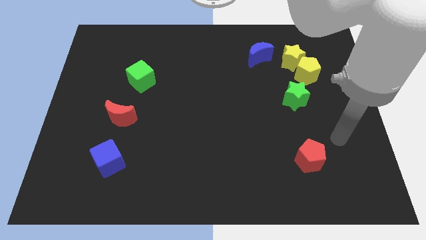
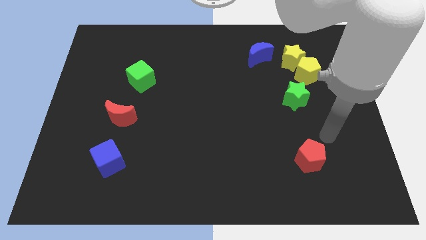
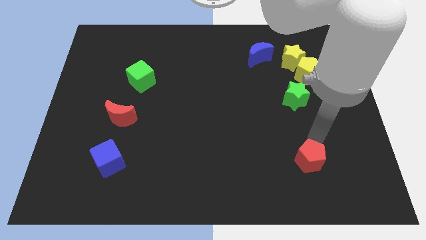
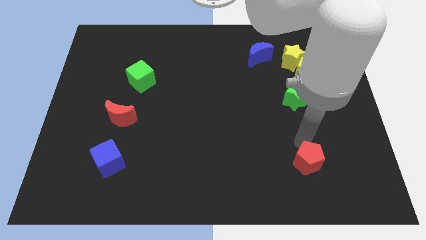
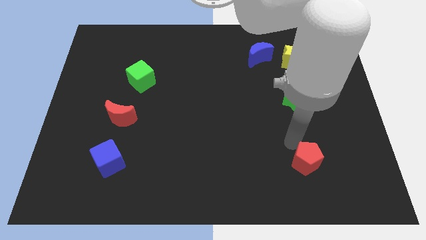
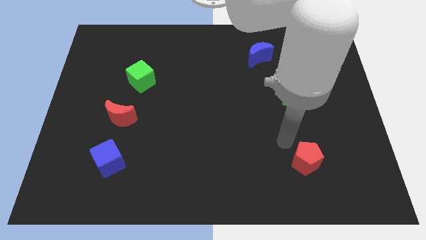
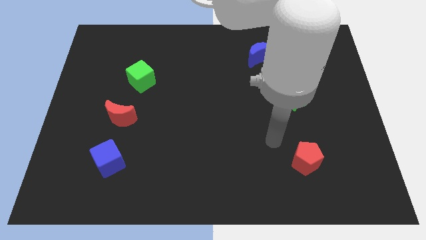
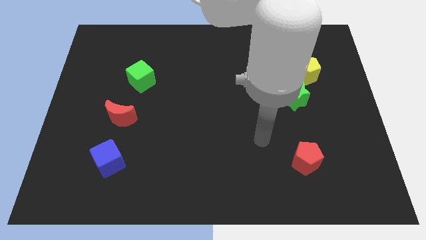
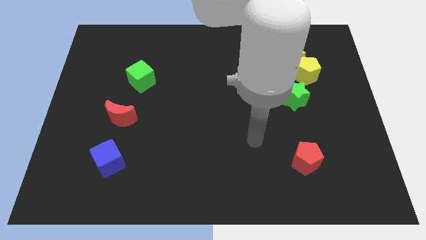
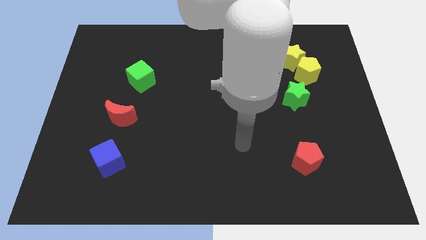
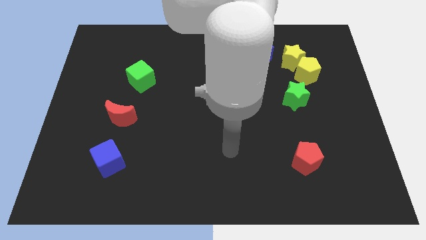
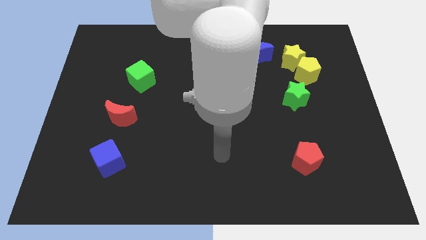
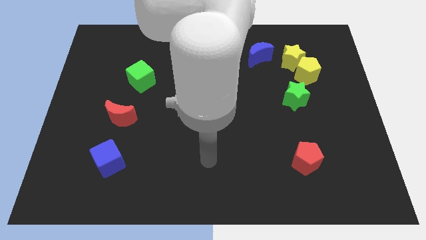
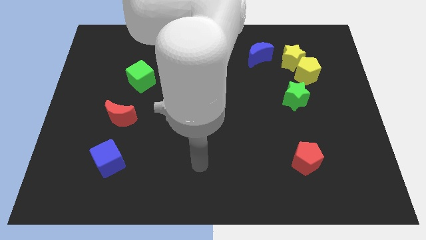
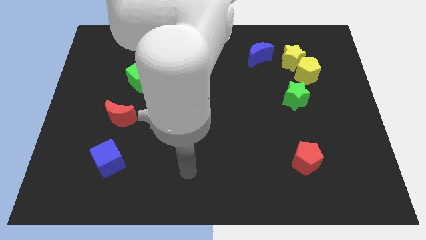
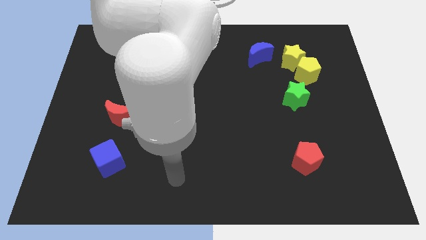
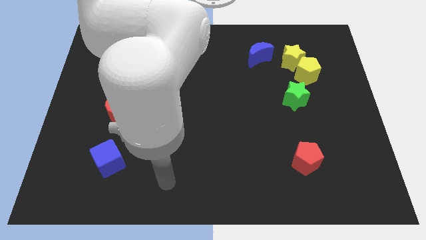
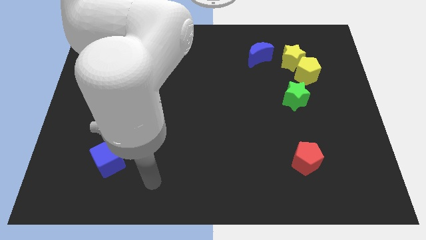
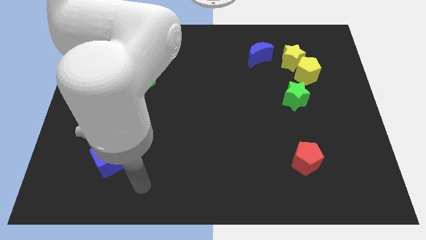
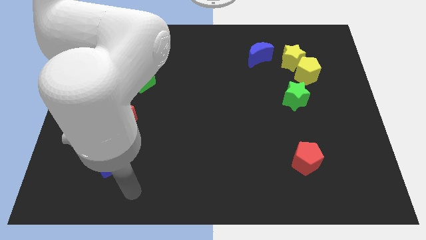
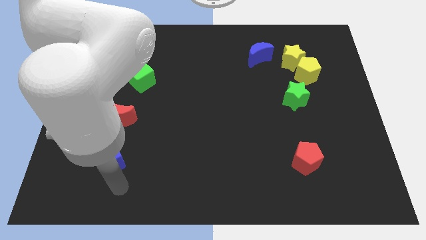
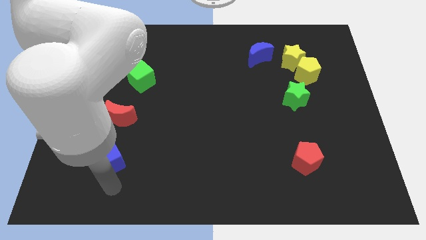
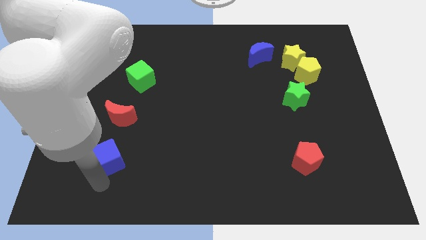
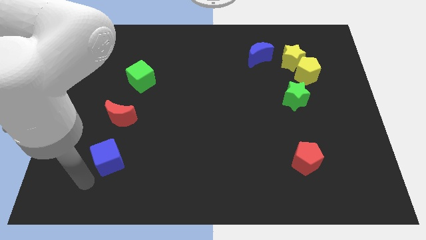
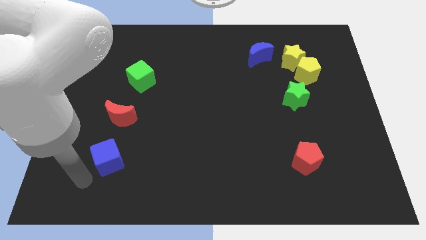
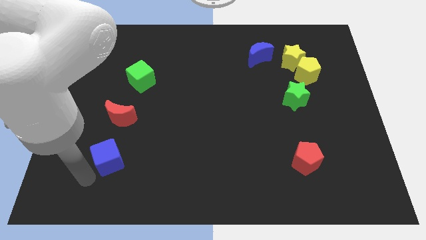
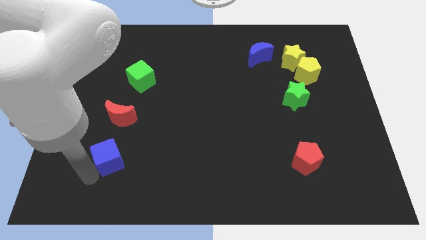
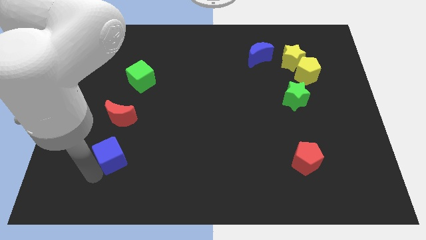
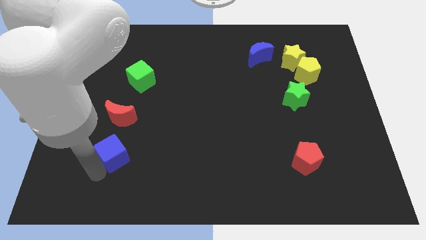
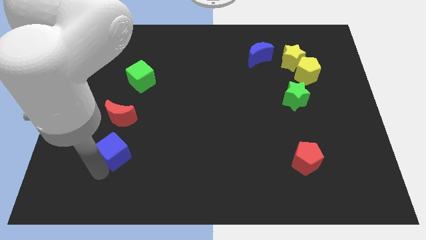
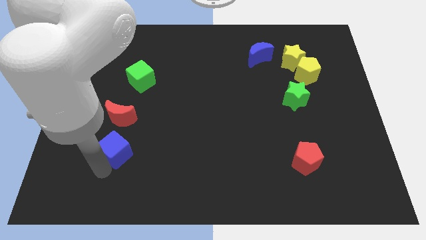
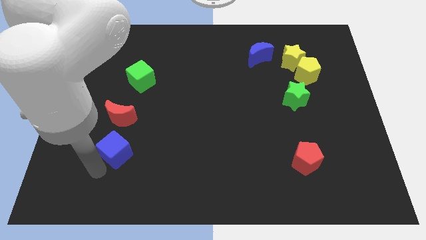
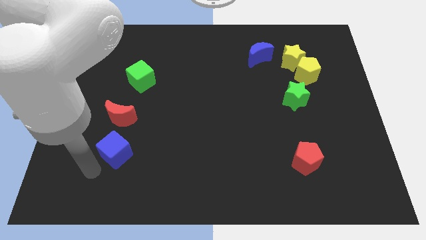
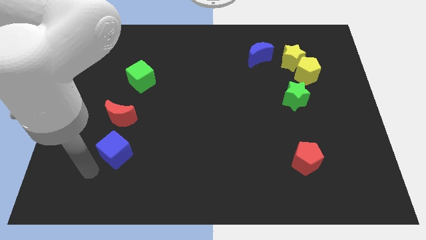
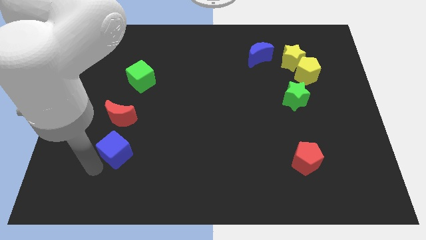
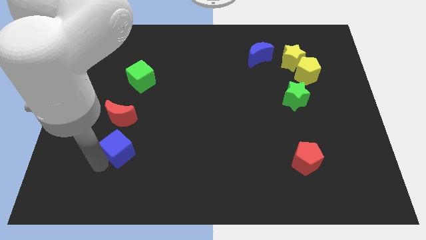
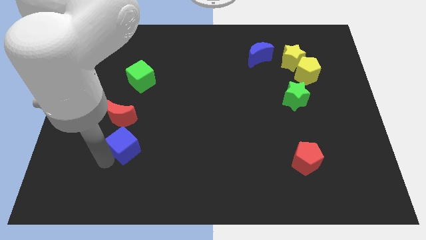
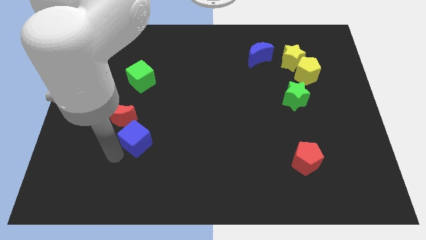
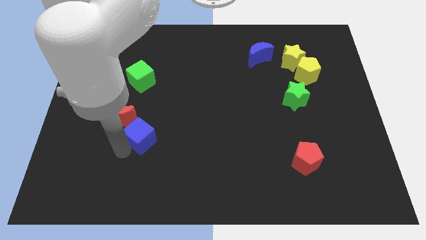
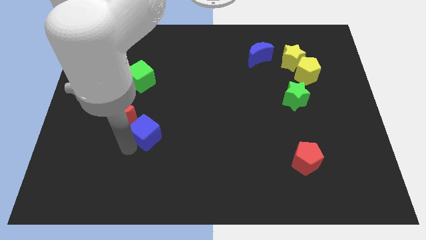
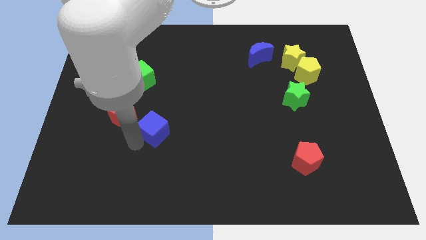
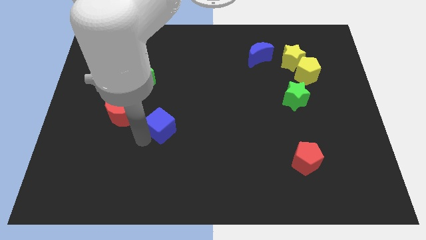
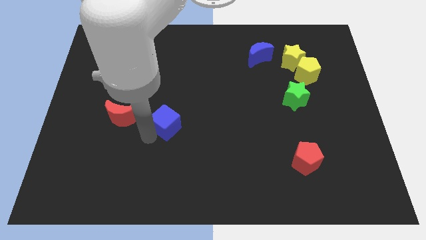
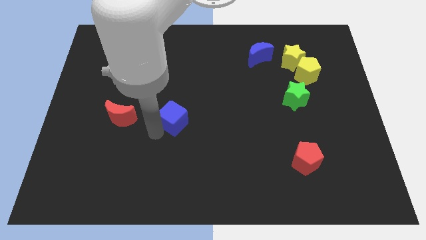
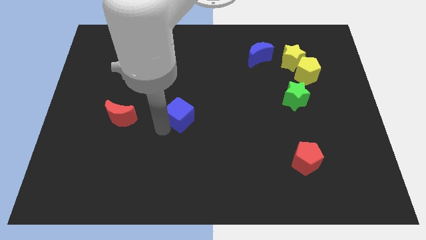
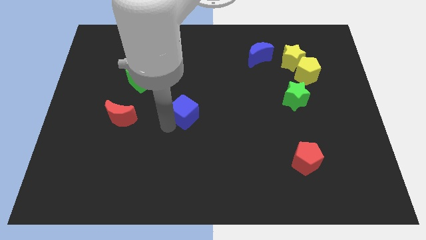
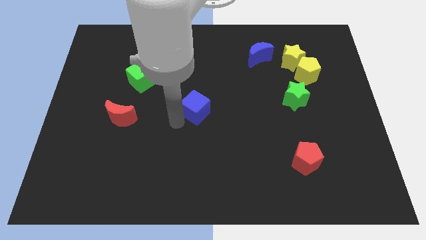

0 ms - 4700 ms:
slide the blue cube up and right diagonally

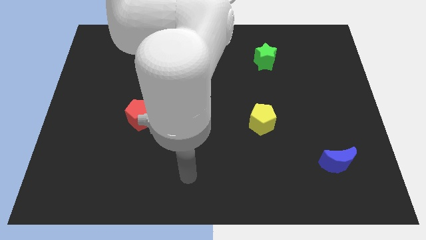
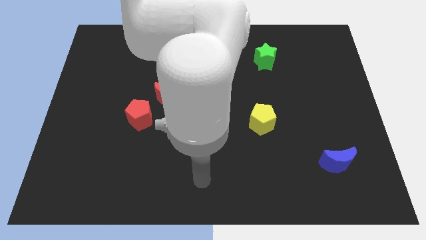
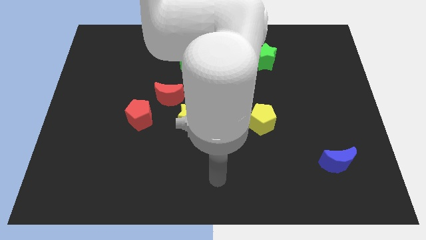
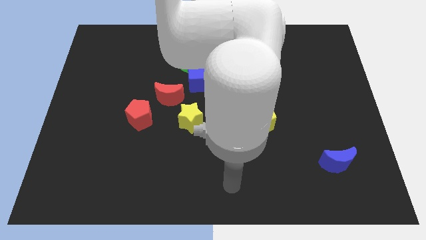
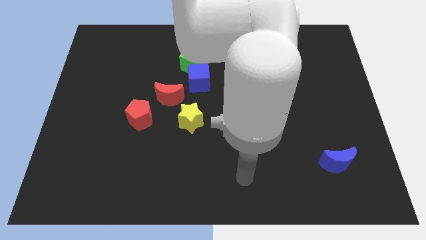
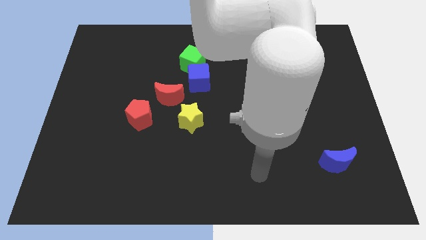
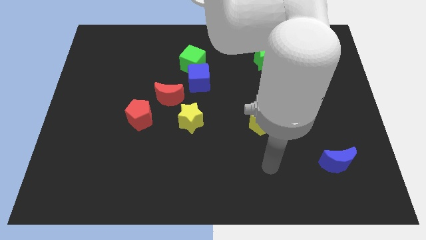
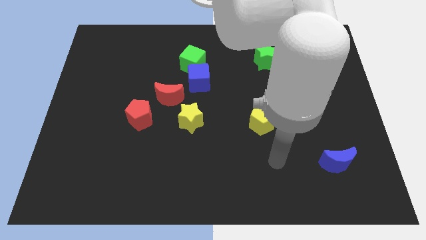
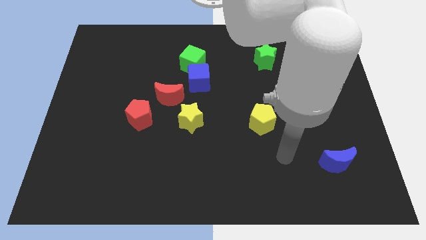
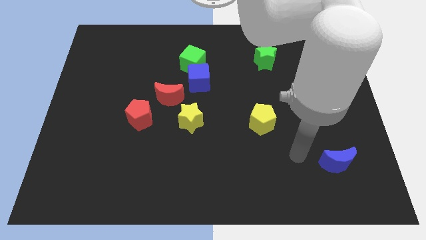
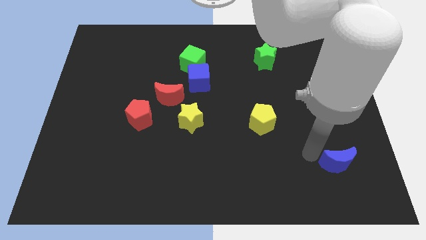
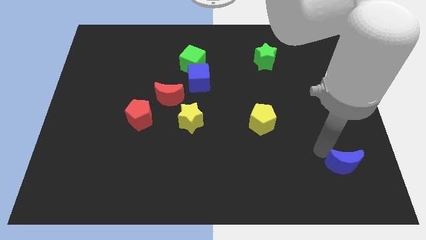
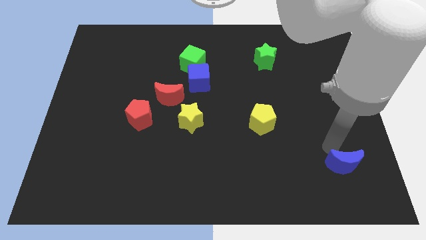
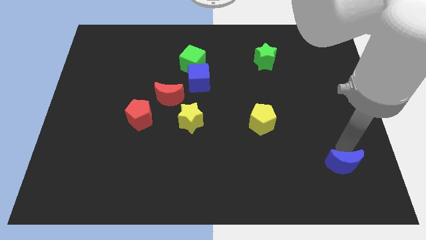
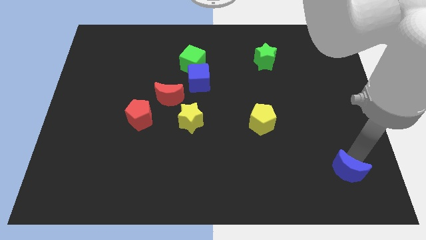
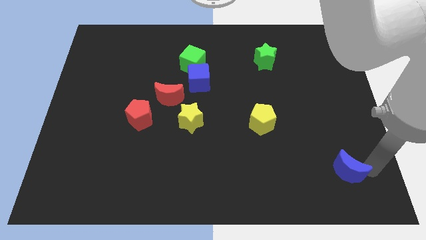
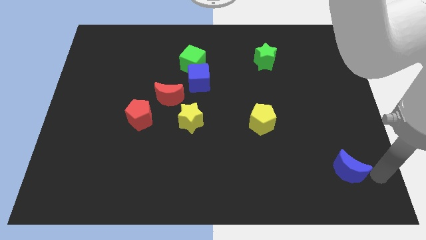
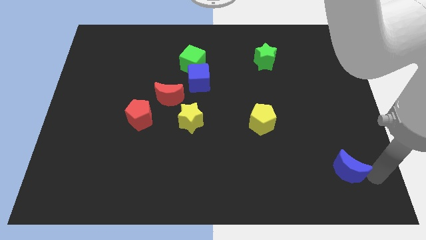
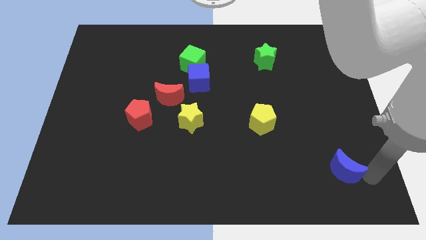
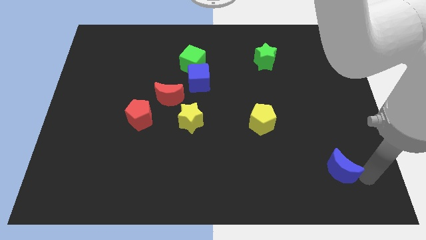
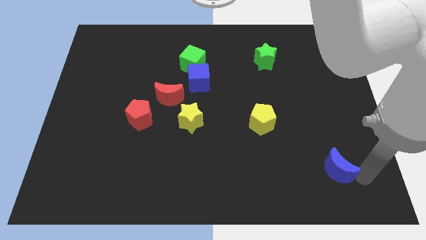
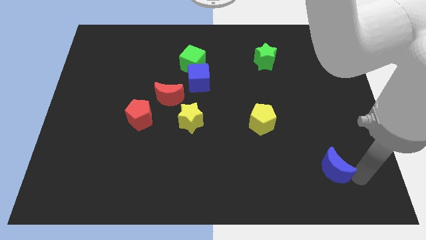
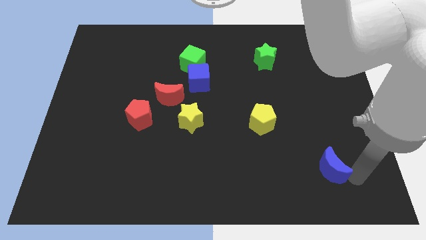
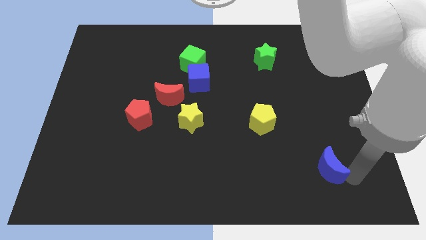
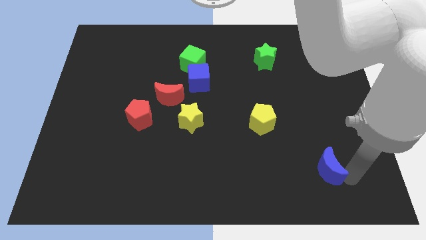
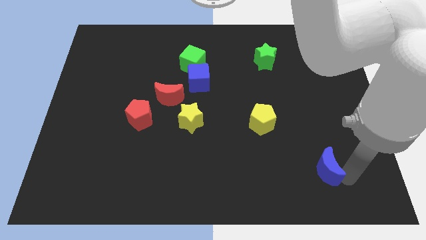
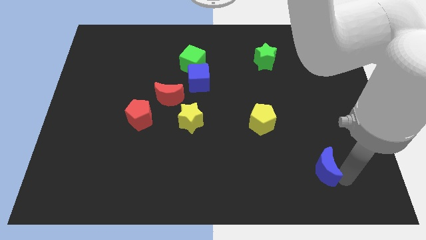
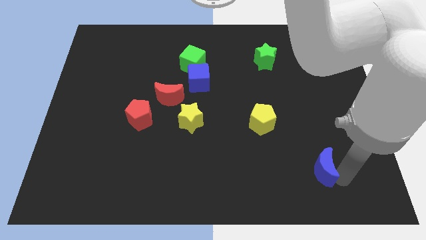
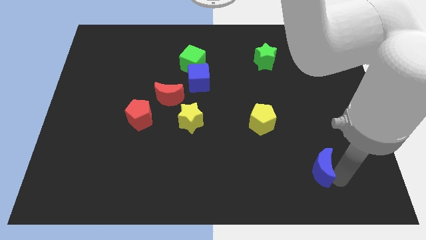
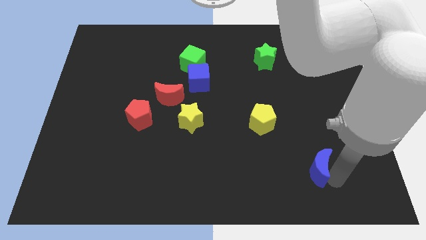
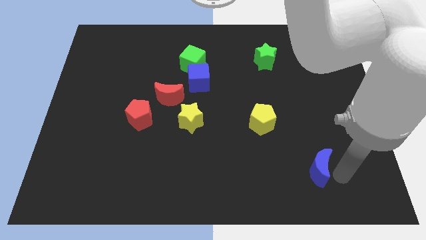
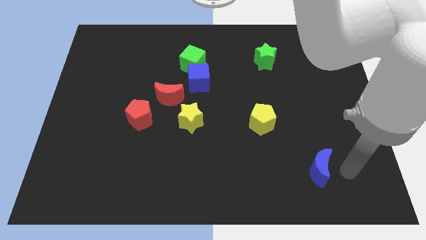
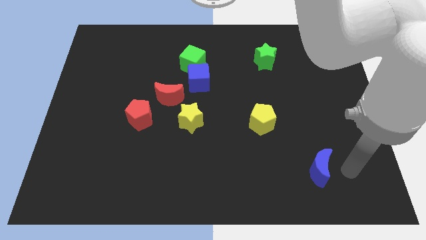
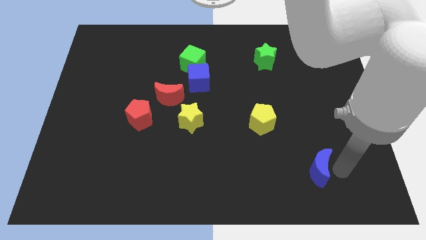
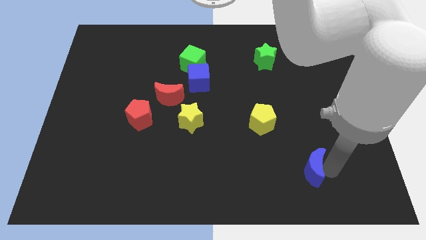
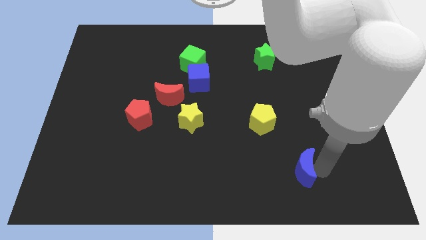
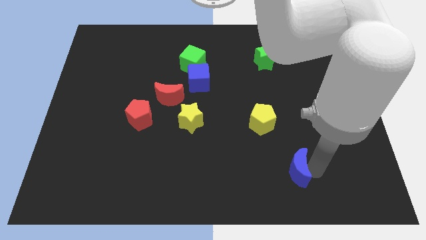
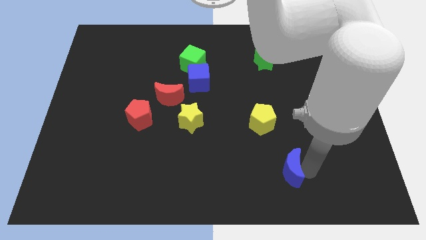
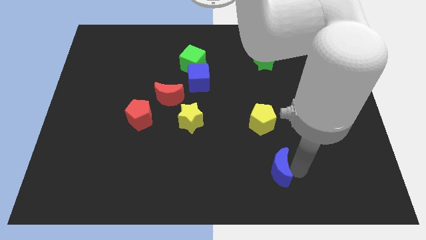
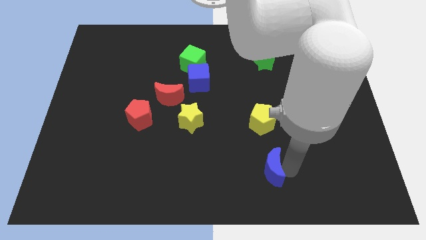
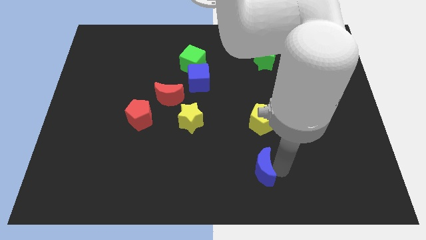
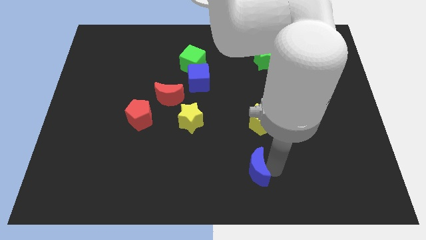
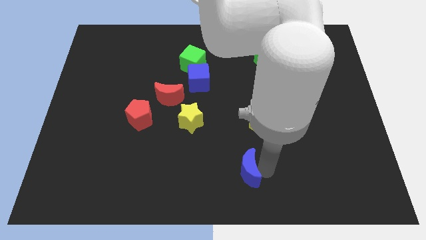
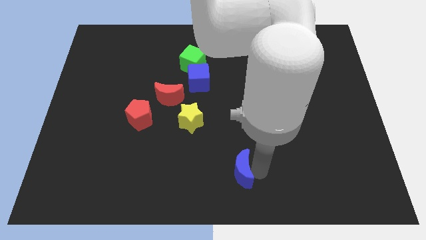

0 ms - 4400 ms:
slide the blue moon left
